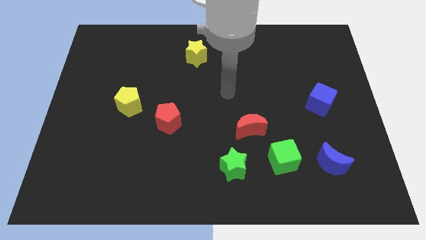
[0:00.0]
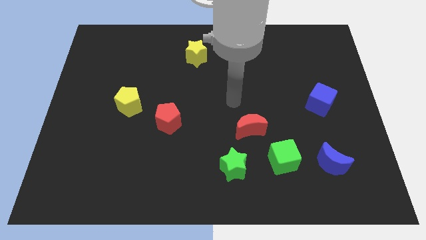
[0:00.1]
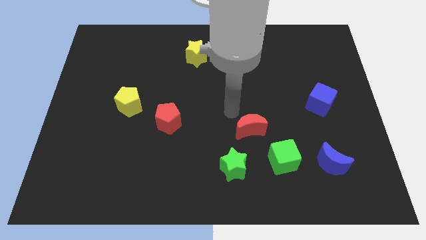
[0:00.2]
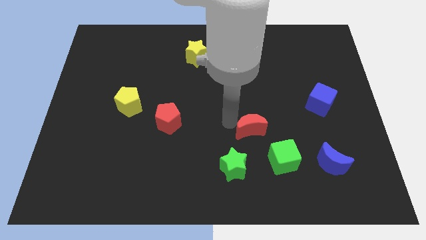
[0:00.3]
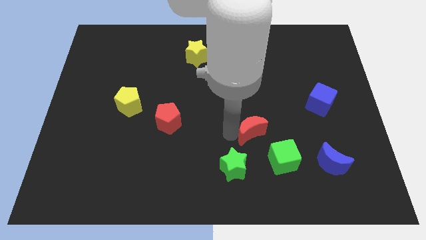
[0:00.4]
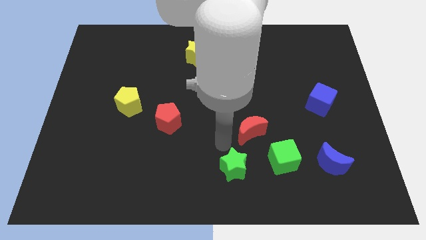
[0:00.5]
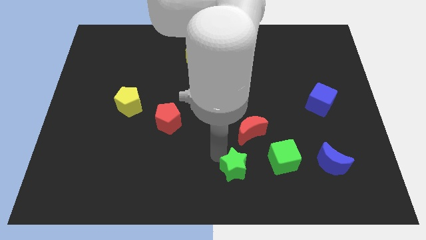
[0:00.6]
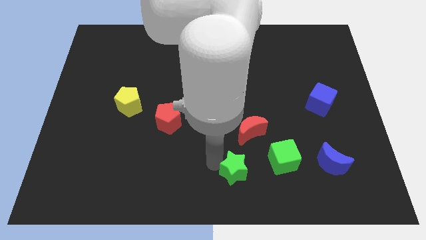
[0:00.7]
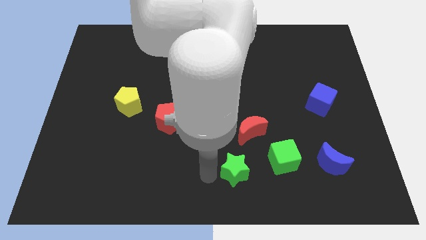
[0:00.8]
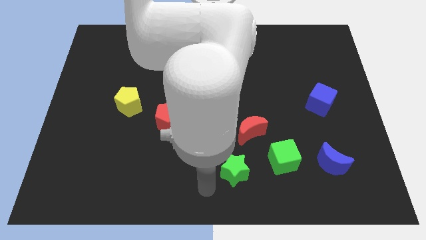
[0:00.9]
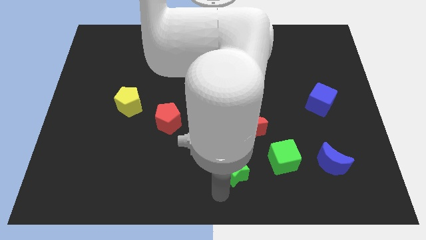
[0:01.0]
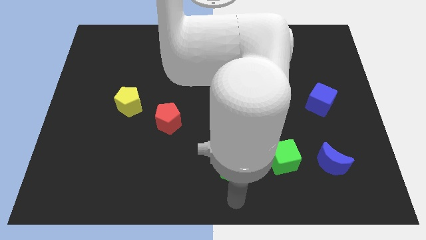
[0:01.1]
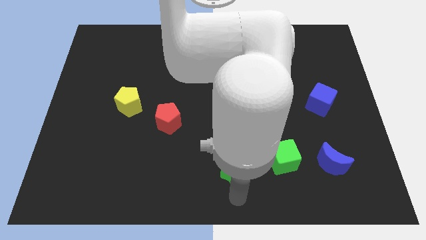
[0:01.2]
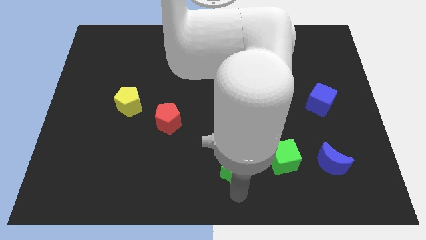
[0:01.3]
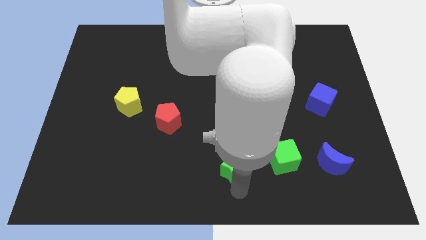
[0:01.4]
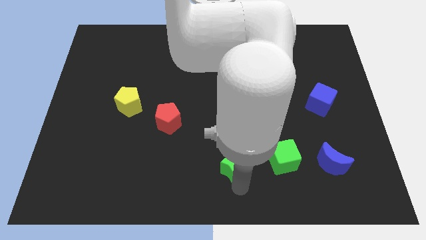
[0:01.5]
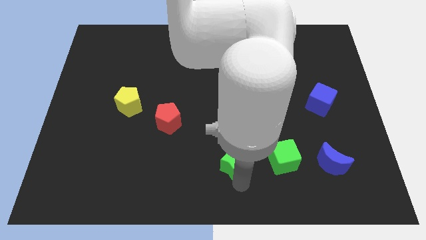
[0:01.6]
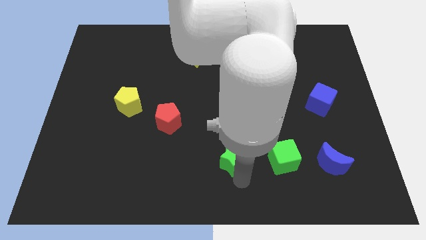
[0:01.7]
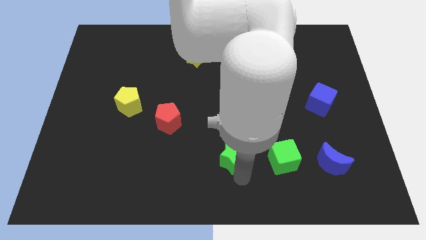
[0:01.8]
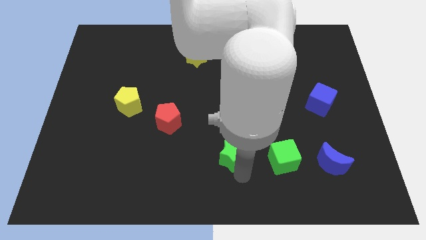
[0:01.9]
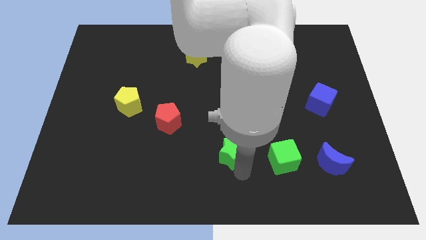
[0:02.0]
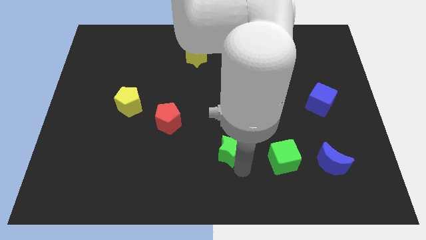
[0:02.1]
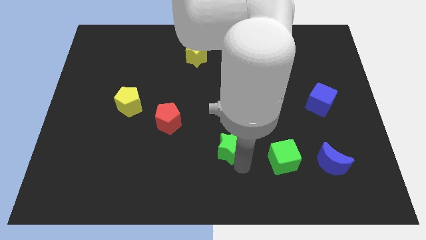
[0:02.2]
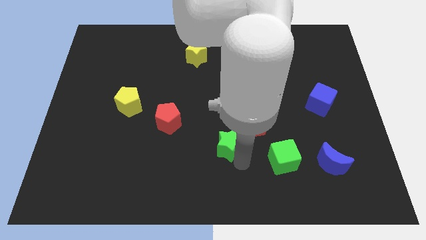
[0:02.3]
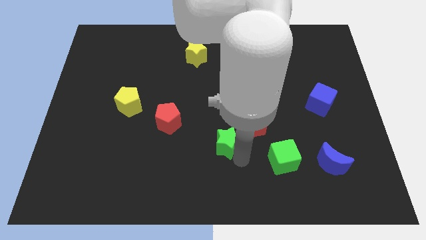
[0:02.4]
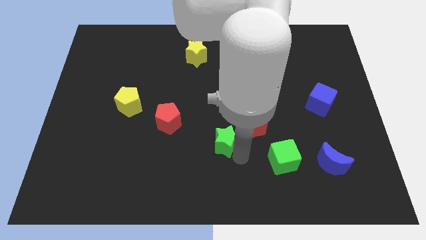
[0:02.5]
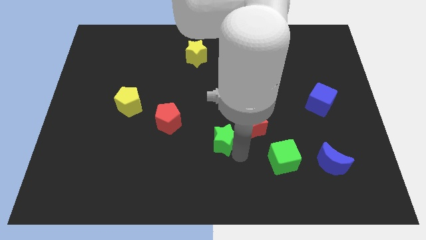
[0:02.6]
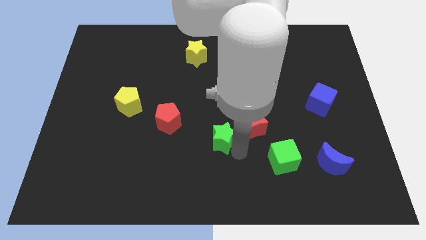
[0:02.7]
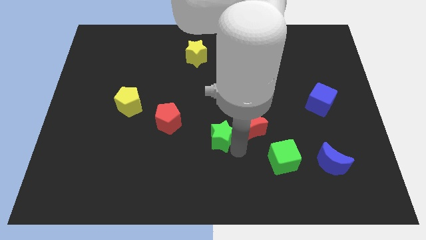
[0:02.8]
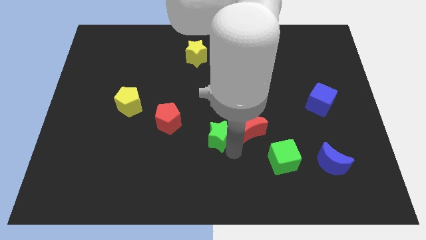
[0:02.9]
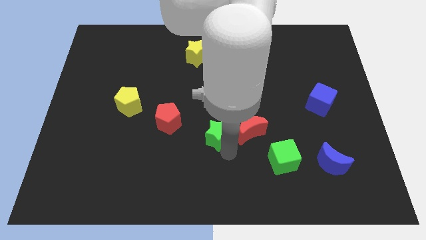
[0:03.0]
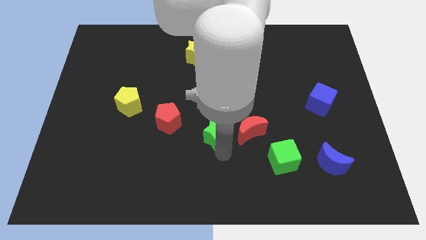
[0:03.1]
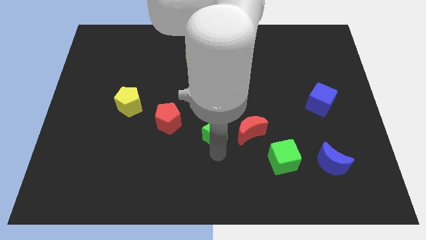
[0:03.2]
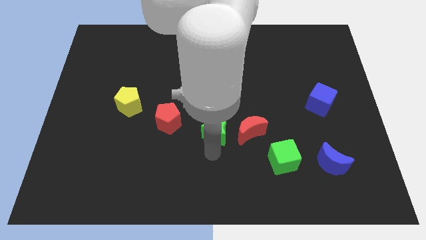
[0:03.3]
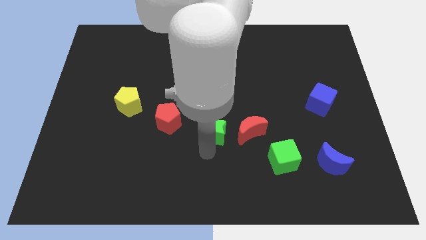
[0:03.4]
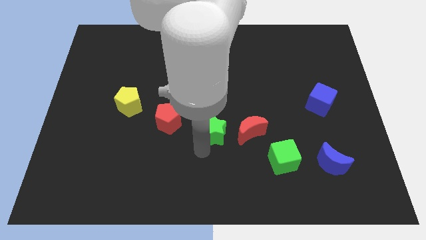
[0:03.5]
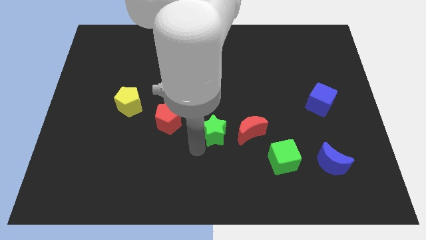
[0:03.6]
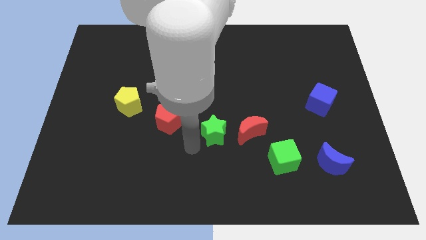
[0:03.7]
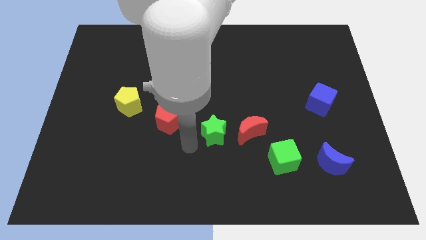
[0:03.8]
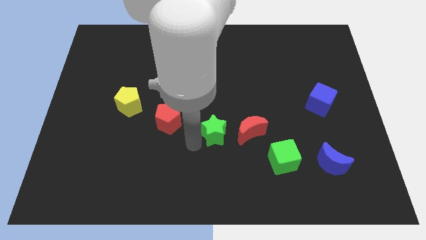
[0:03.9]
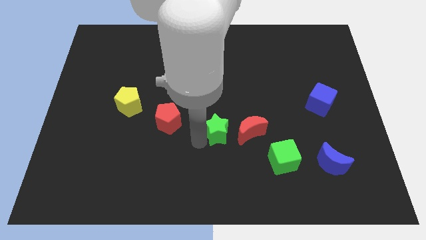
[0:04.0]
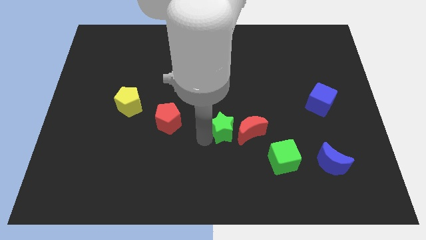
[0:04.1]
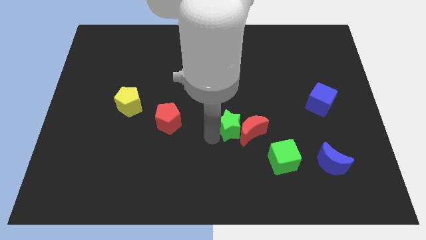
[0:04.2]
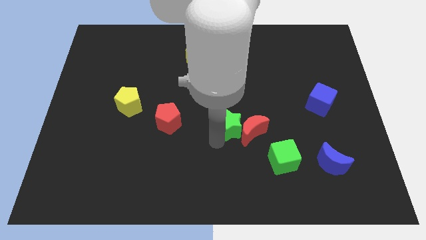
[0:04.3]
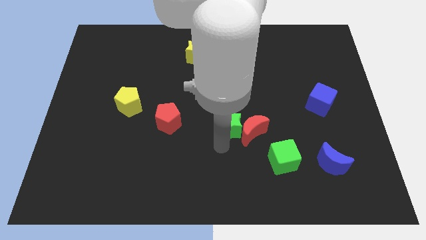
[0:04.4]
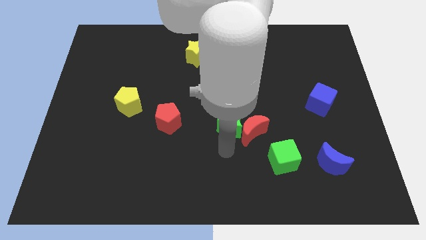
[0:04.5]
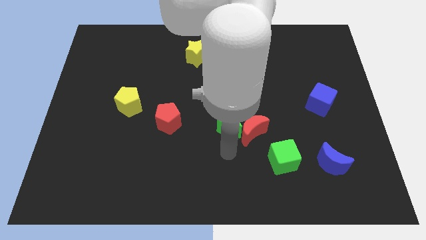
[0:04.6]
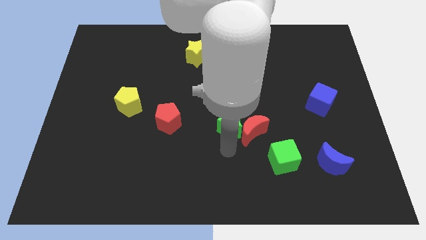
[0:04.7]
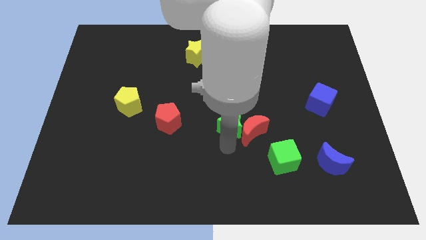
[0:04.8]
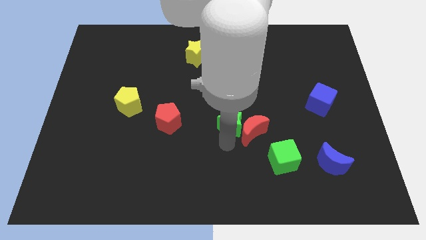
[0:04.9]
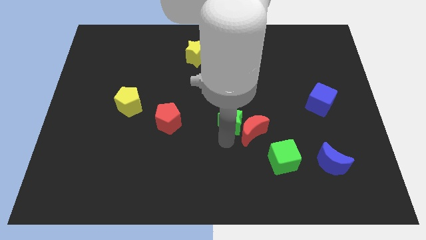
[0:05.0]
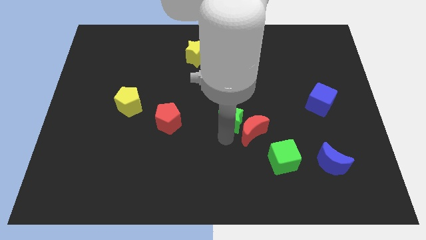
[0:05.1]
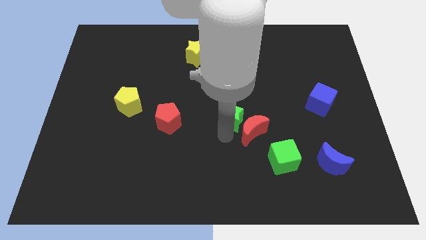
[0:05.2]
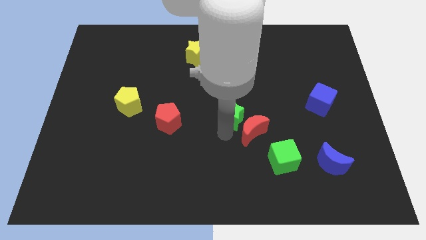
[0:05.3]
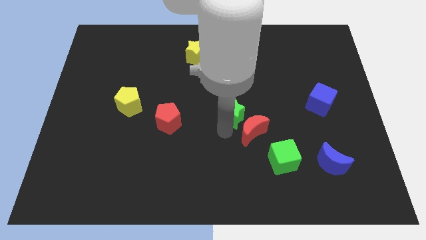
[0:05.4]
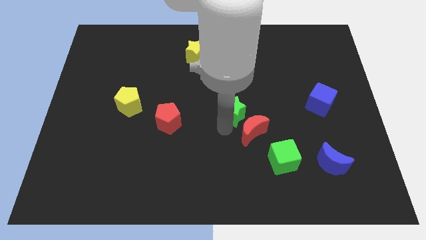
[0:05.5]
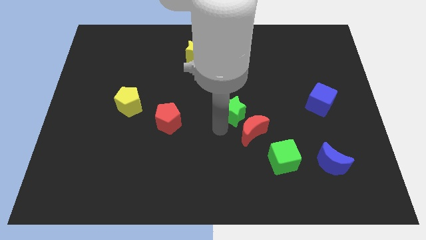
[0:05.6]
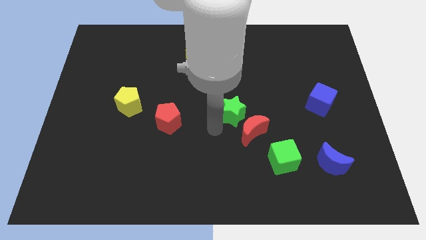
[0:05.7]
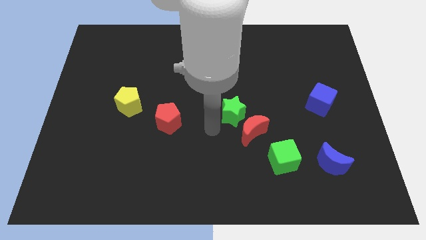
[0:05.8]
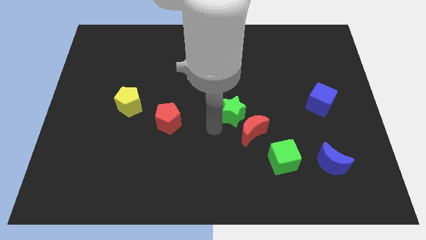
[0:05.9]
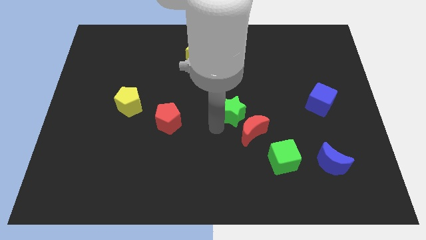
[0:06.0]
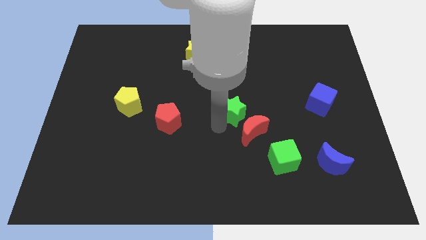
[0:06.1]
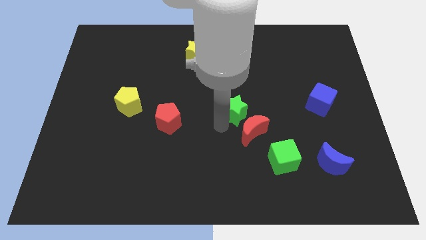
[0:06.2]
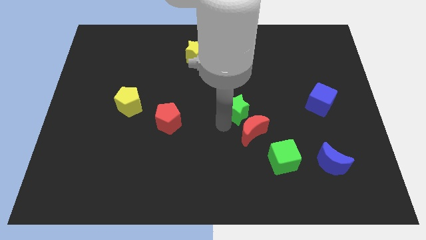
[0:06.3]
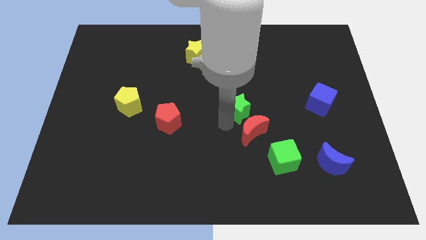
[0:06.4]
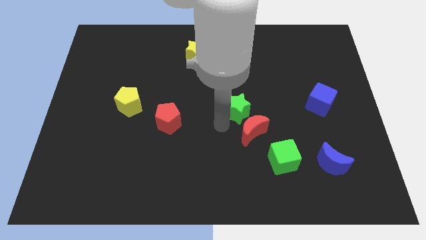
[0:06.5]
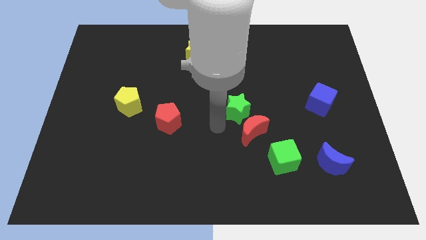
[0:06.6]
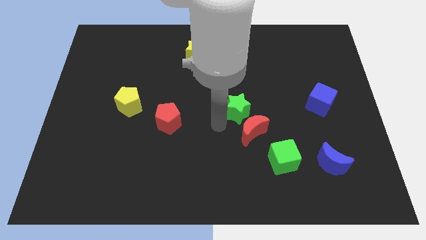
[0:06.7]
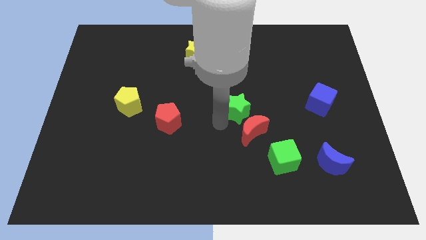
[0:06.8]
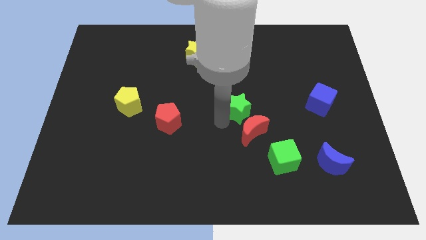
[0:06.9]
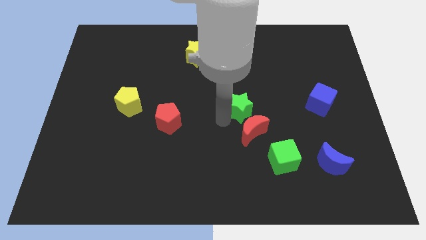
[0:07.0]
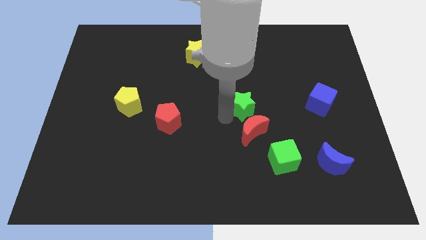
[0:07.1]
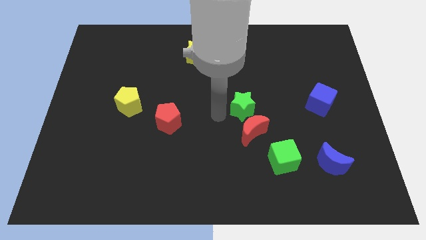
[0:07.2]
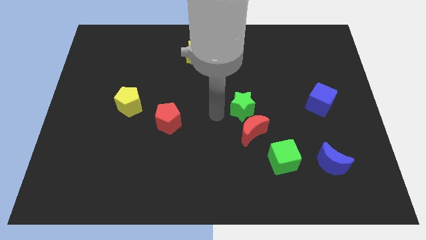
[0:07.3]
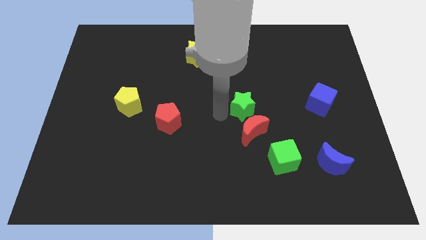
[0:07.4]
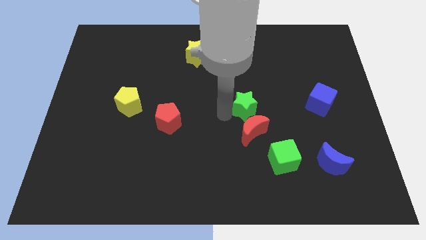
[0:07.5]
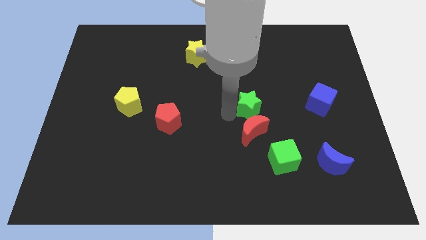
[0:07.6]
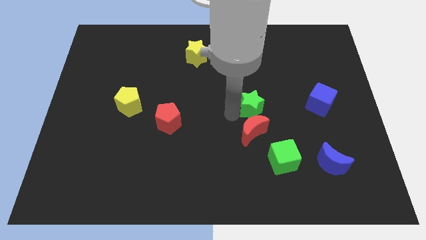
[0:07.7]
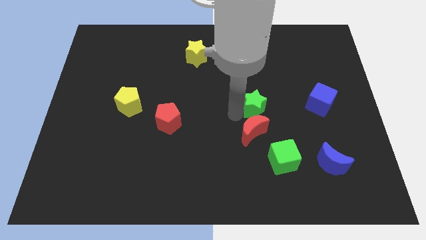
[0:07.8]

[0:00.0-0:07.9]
push the green star just left of the blue cube
